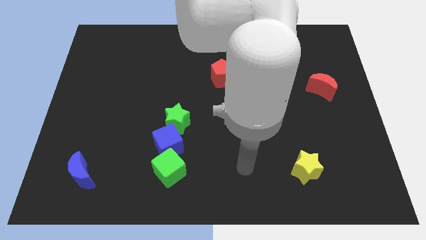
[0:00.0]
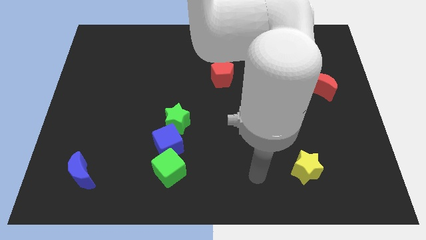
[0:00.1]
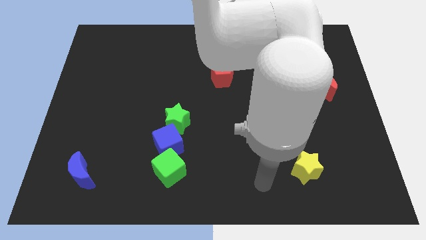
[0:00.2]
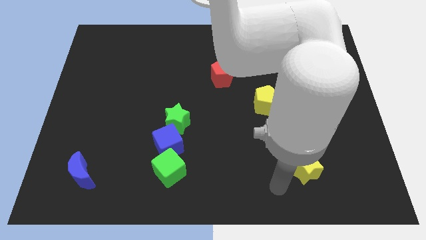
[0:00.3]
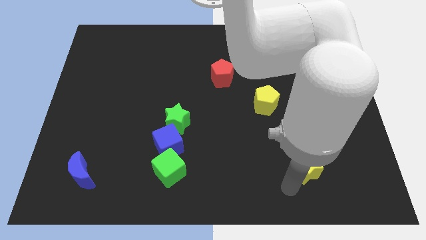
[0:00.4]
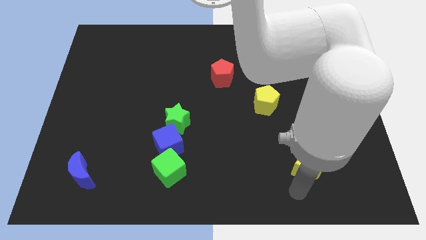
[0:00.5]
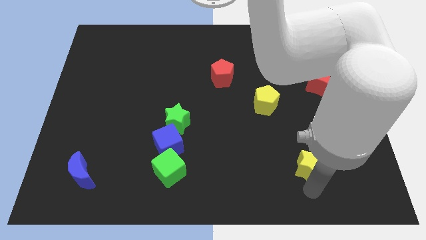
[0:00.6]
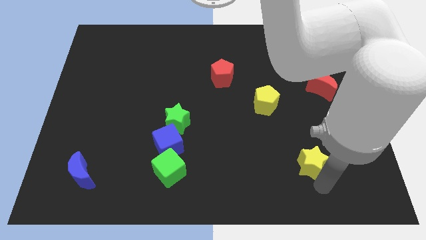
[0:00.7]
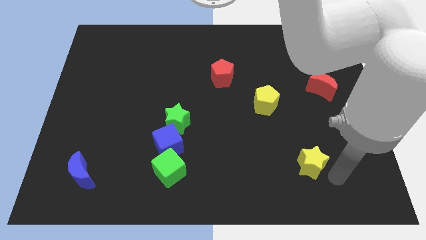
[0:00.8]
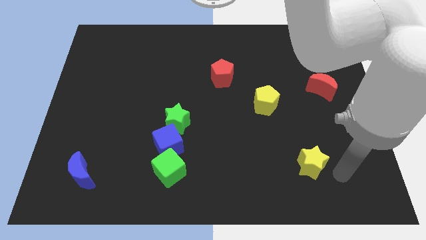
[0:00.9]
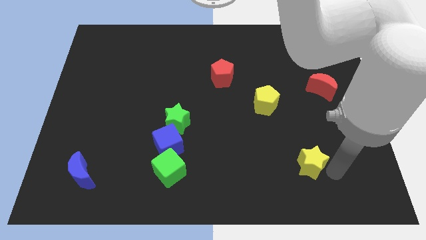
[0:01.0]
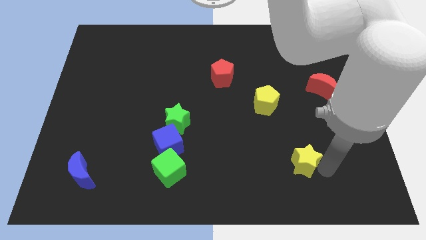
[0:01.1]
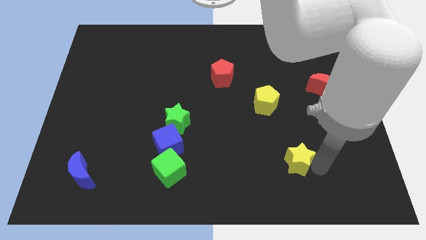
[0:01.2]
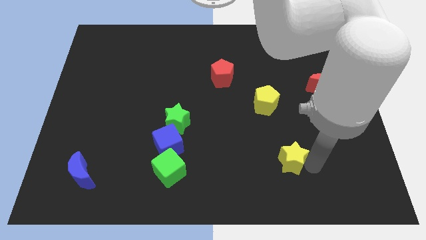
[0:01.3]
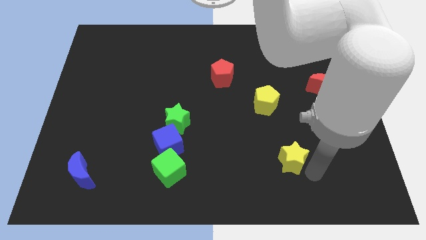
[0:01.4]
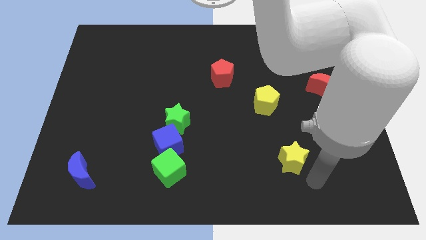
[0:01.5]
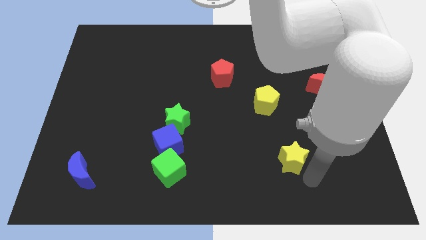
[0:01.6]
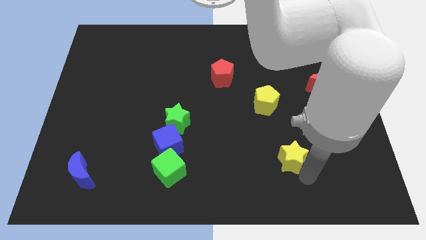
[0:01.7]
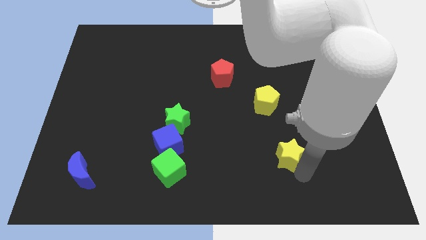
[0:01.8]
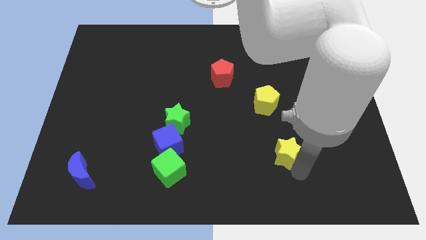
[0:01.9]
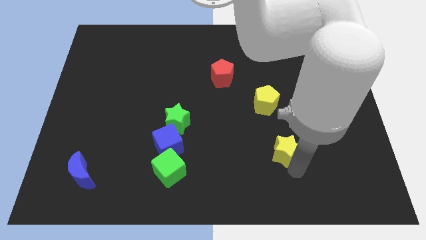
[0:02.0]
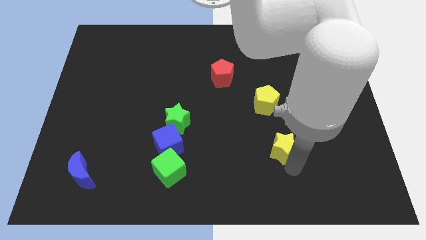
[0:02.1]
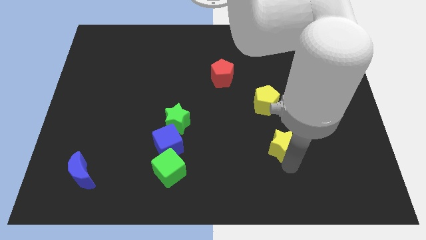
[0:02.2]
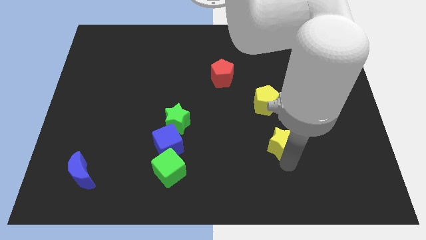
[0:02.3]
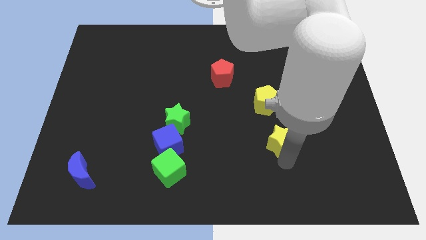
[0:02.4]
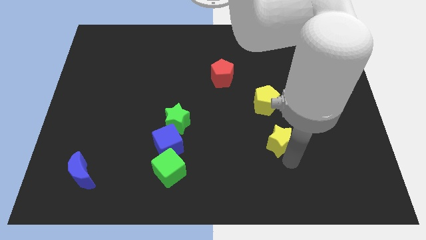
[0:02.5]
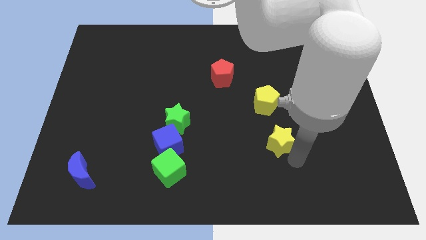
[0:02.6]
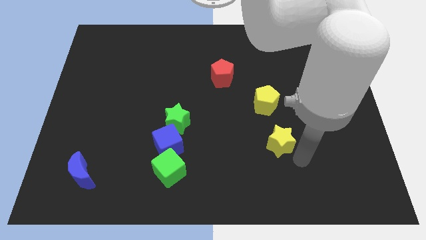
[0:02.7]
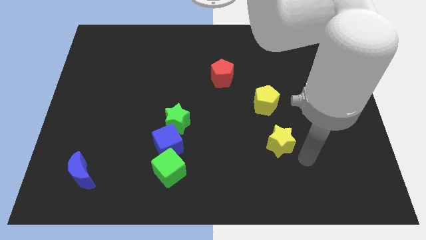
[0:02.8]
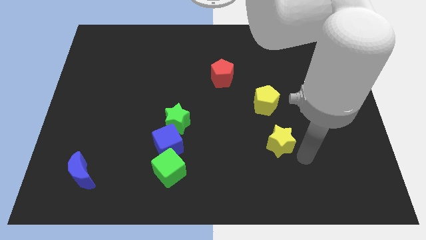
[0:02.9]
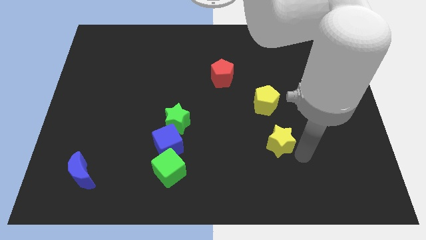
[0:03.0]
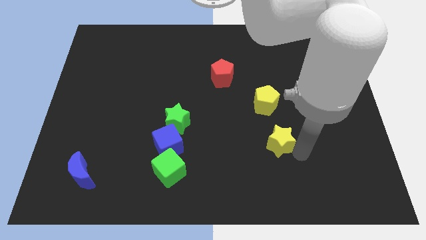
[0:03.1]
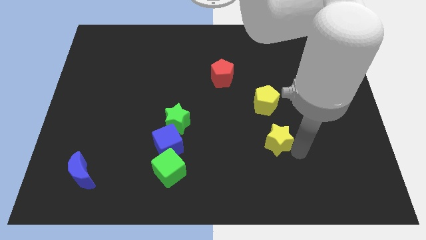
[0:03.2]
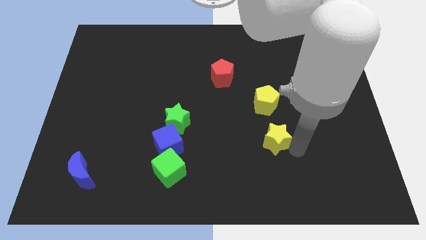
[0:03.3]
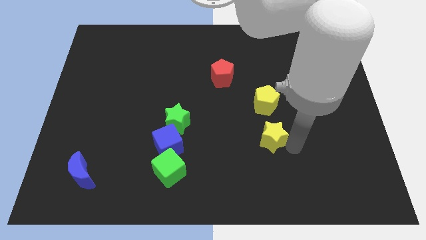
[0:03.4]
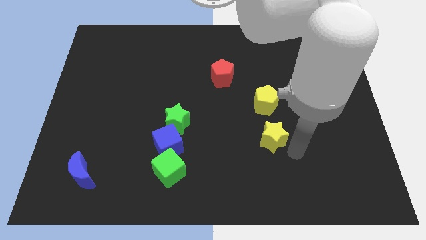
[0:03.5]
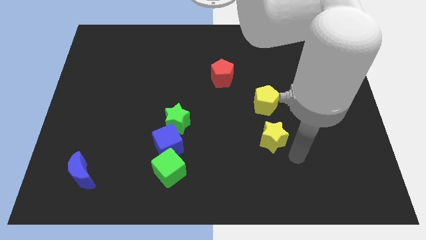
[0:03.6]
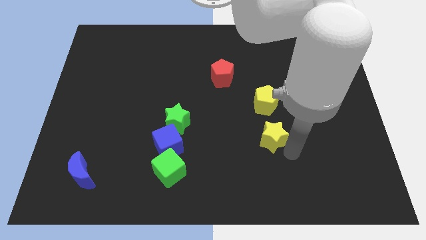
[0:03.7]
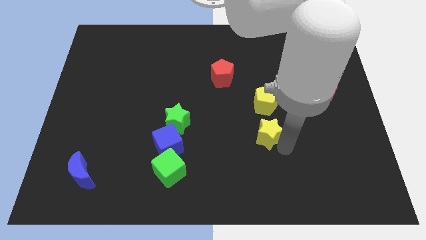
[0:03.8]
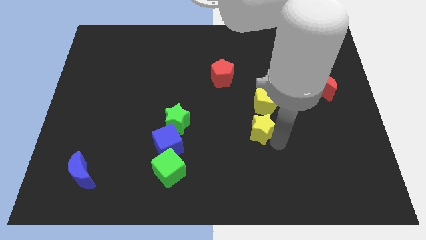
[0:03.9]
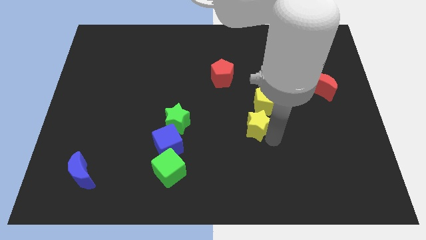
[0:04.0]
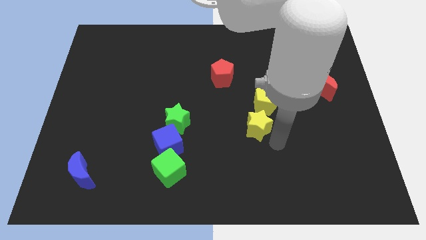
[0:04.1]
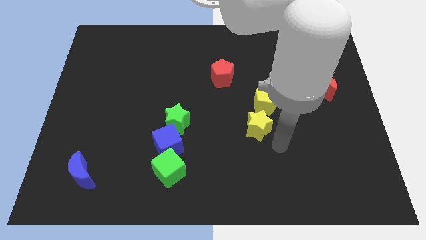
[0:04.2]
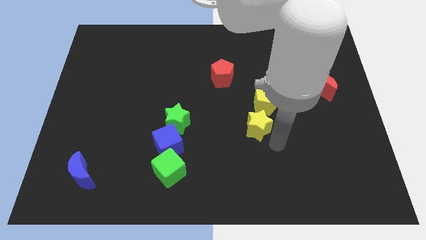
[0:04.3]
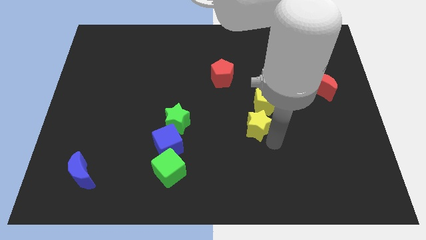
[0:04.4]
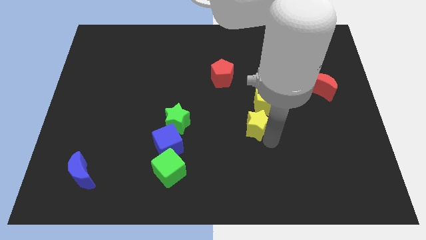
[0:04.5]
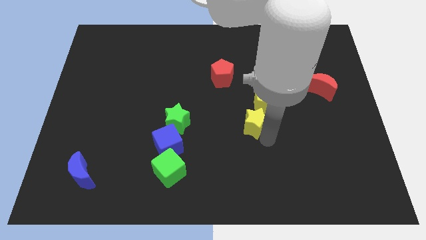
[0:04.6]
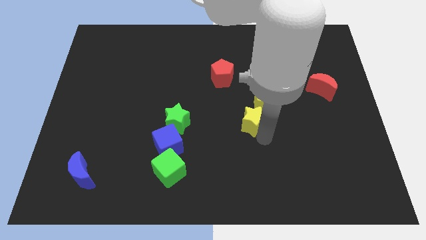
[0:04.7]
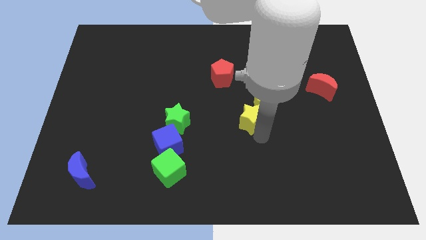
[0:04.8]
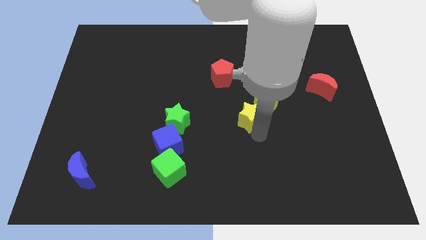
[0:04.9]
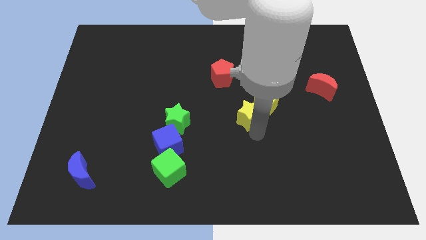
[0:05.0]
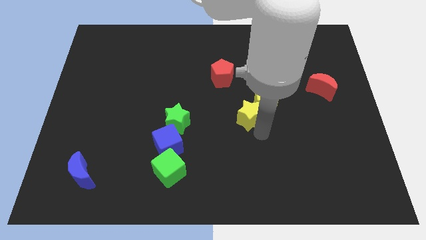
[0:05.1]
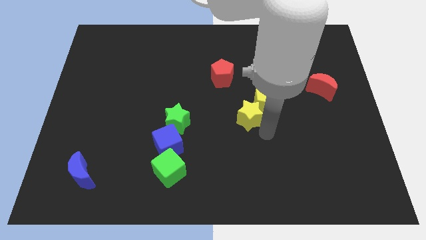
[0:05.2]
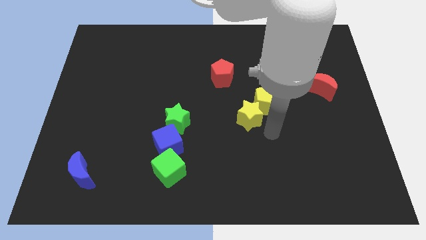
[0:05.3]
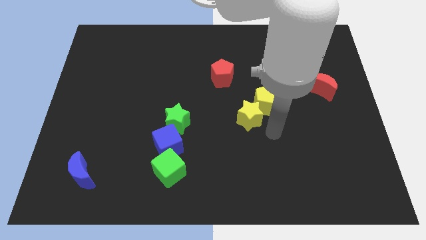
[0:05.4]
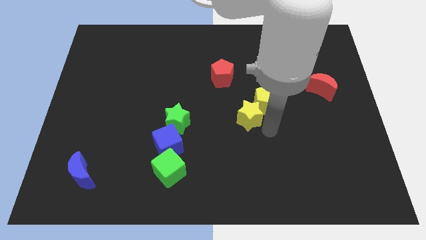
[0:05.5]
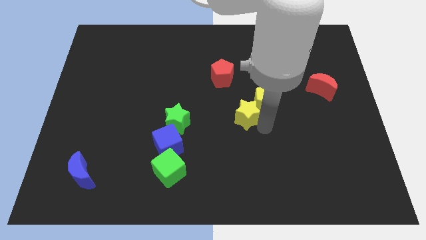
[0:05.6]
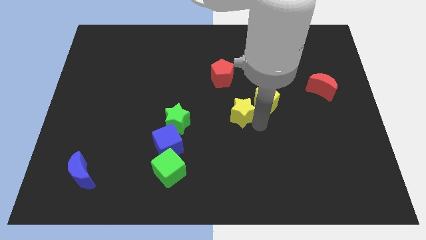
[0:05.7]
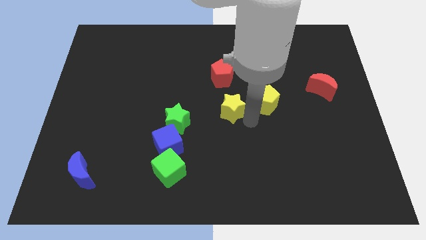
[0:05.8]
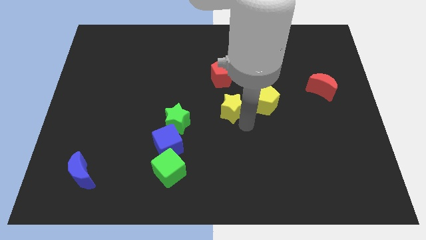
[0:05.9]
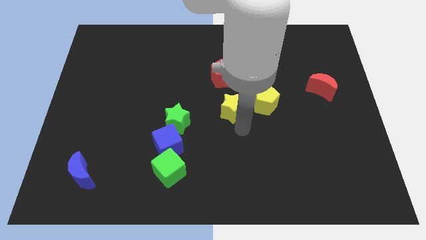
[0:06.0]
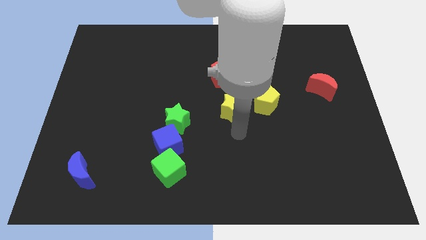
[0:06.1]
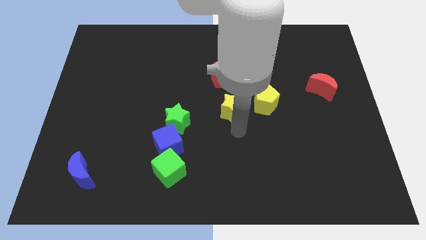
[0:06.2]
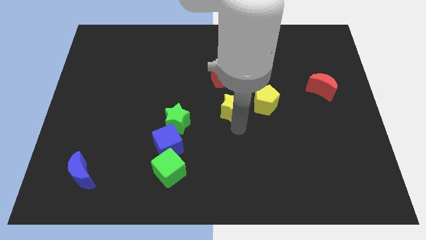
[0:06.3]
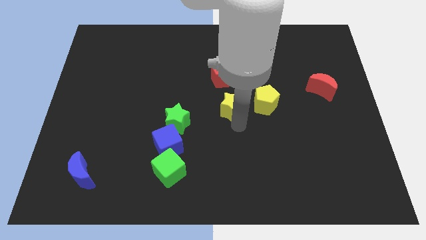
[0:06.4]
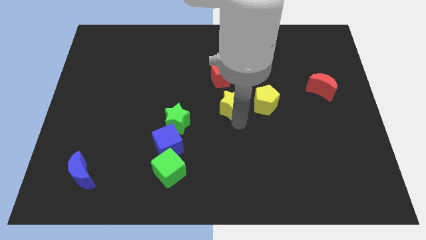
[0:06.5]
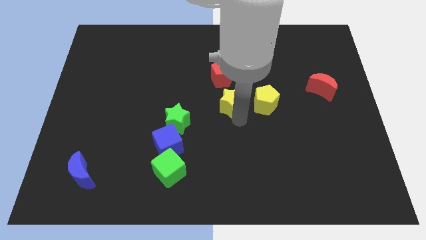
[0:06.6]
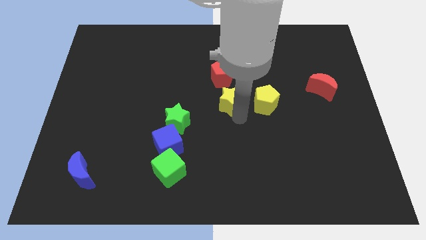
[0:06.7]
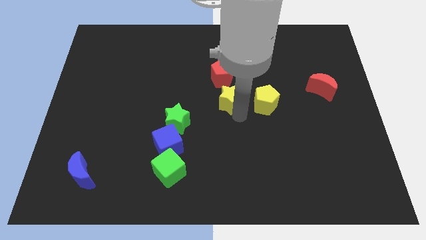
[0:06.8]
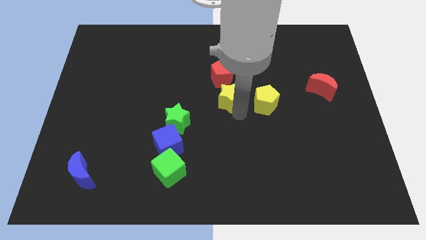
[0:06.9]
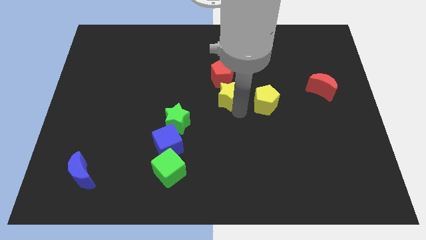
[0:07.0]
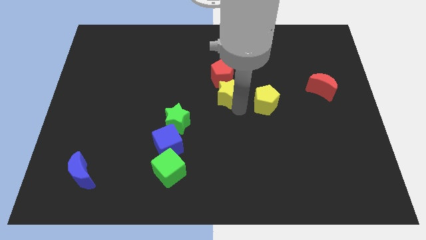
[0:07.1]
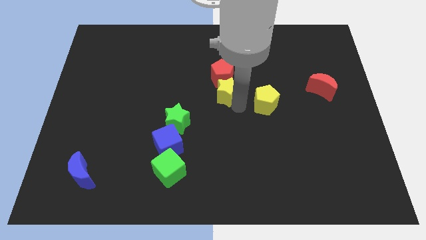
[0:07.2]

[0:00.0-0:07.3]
push the yellow star towards the red pentagon

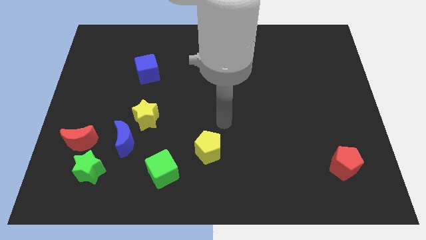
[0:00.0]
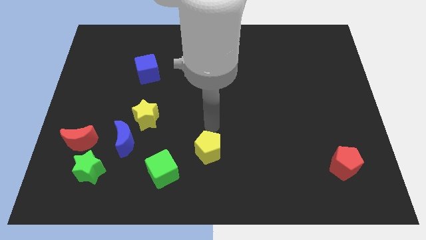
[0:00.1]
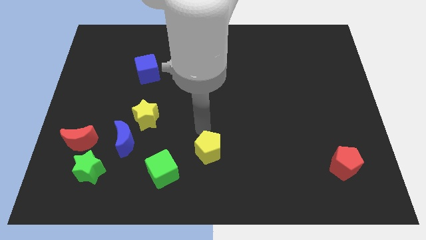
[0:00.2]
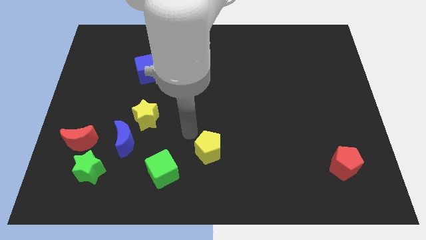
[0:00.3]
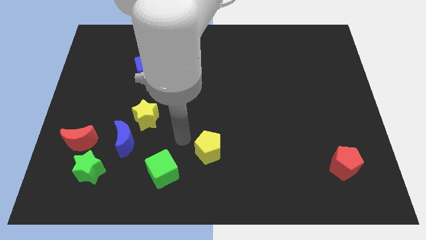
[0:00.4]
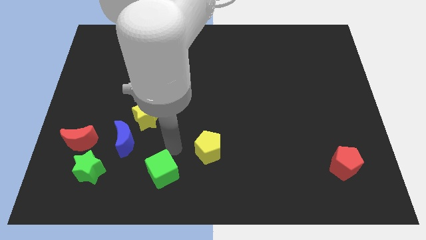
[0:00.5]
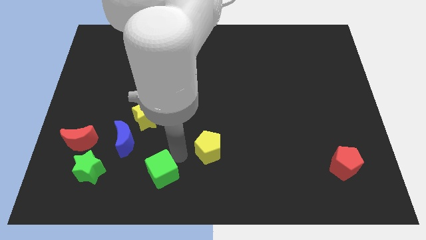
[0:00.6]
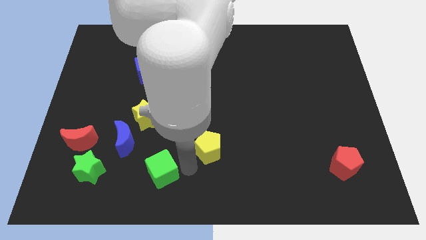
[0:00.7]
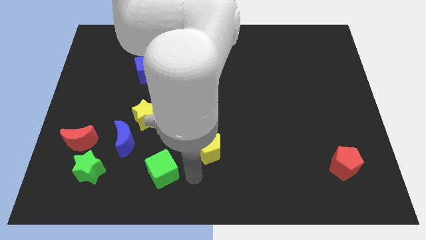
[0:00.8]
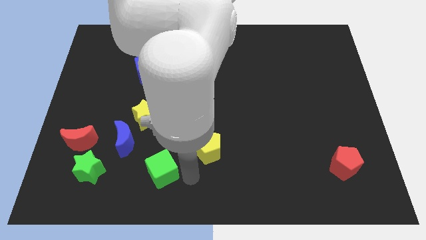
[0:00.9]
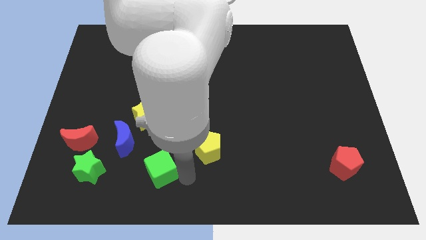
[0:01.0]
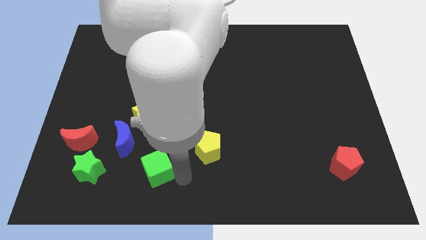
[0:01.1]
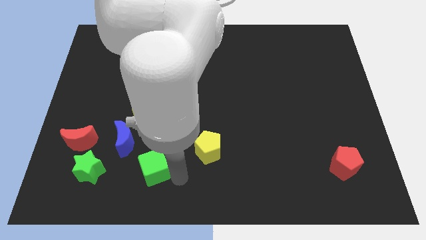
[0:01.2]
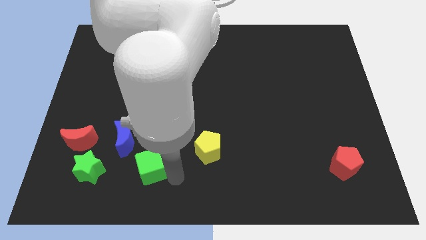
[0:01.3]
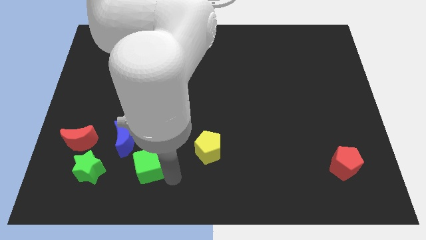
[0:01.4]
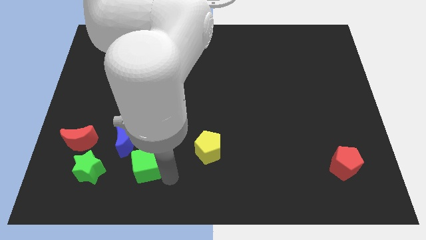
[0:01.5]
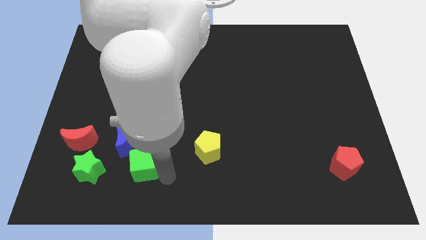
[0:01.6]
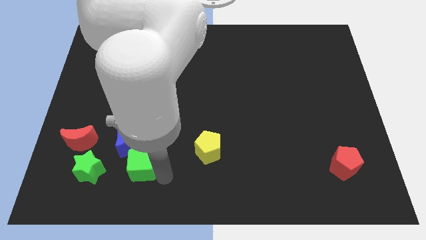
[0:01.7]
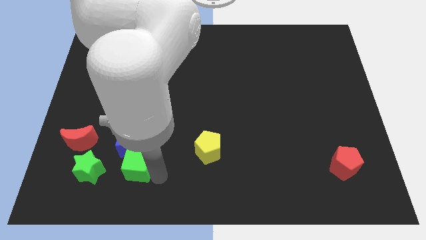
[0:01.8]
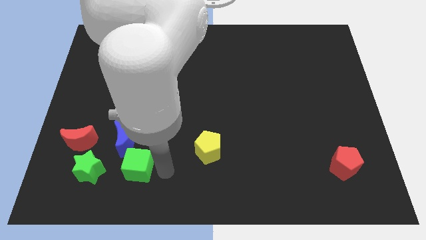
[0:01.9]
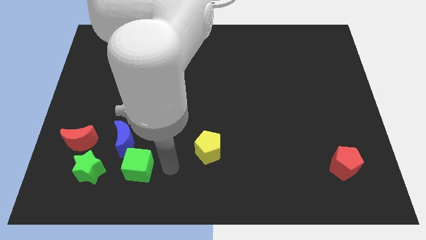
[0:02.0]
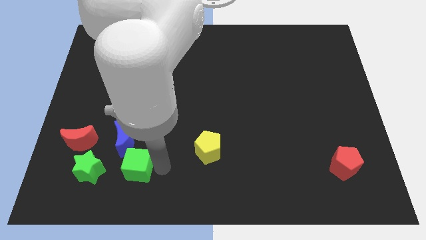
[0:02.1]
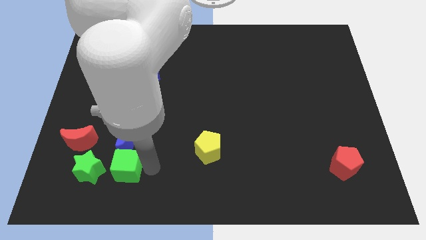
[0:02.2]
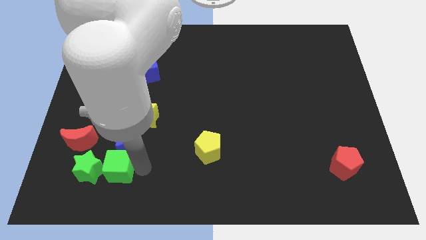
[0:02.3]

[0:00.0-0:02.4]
push the green cube to the green star
